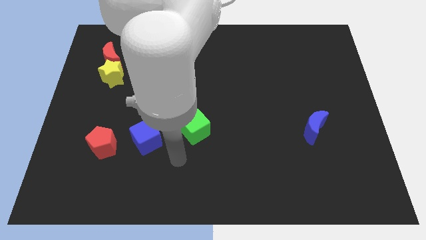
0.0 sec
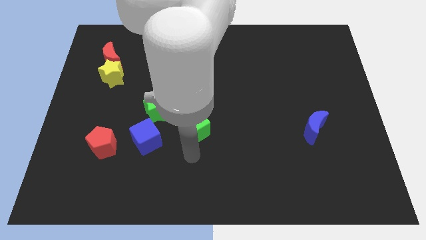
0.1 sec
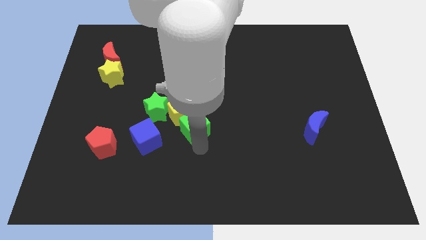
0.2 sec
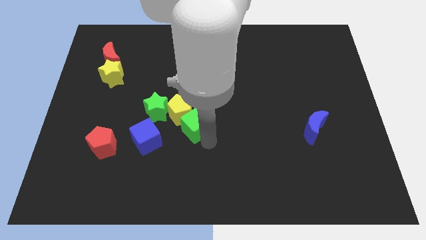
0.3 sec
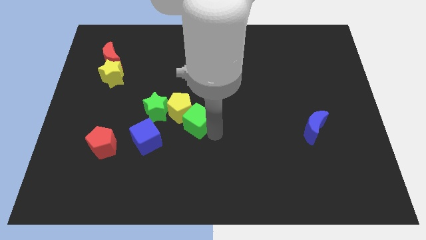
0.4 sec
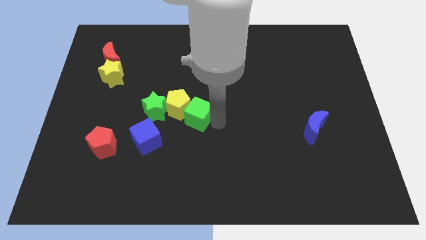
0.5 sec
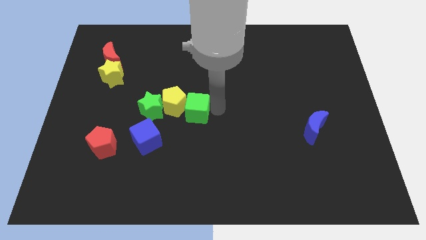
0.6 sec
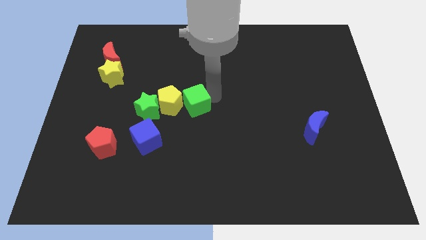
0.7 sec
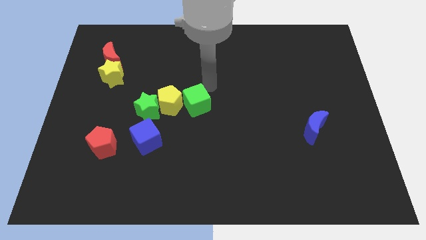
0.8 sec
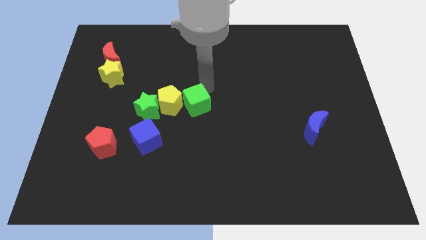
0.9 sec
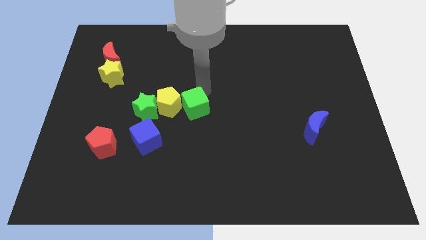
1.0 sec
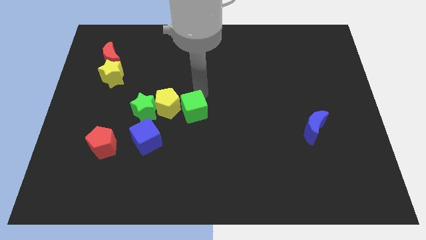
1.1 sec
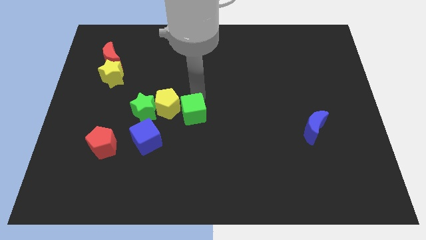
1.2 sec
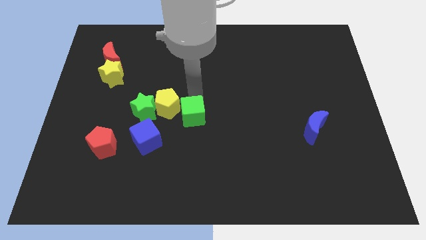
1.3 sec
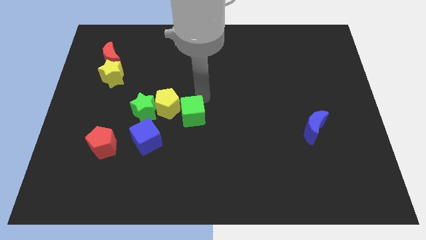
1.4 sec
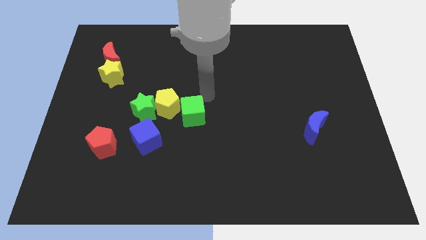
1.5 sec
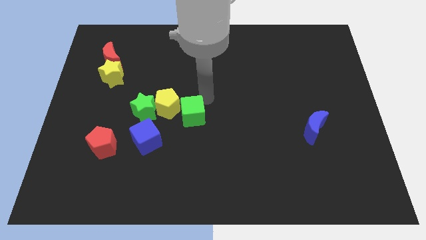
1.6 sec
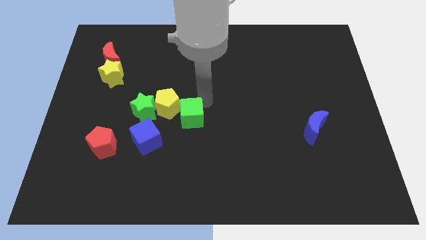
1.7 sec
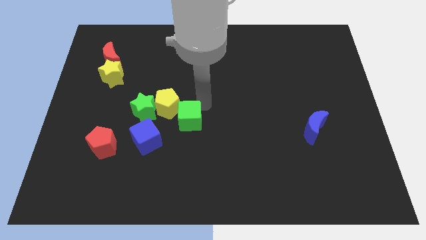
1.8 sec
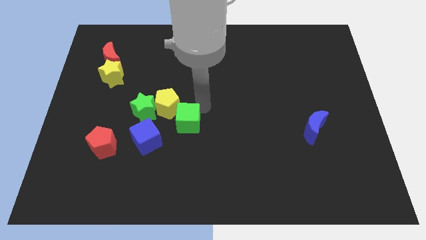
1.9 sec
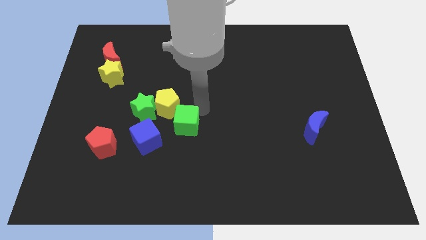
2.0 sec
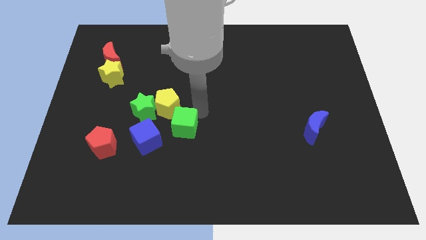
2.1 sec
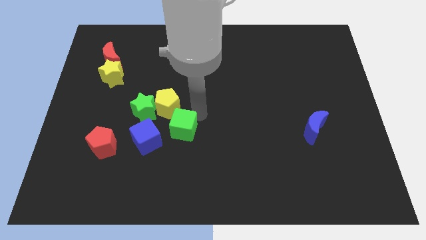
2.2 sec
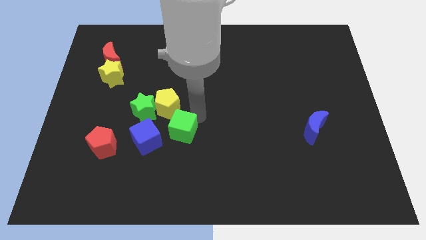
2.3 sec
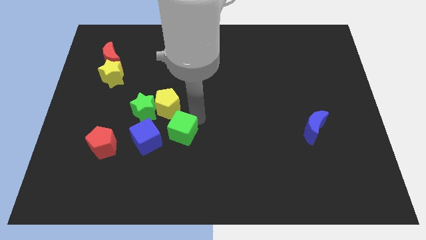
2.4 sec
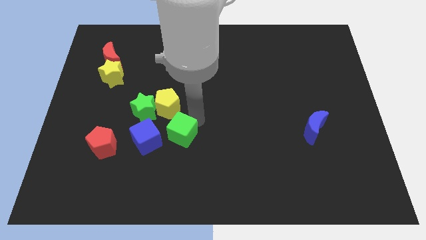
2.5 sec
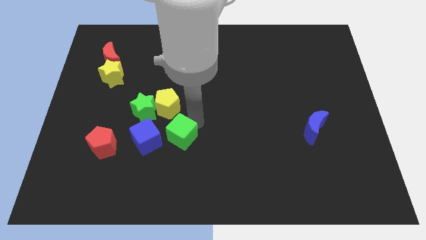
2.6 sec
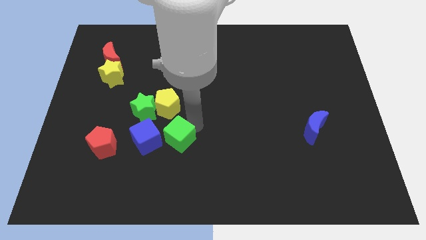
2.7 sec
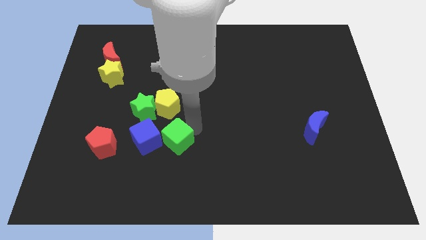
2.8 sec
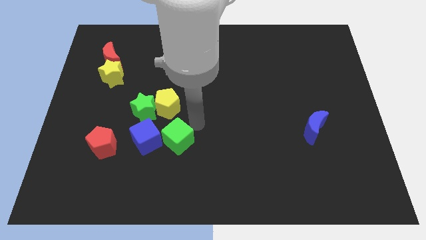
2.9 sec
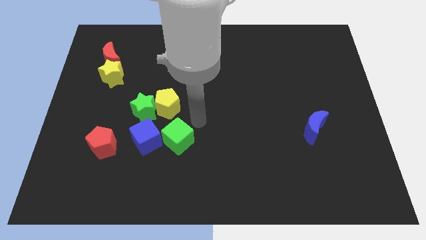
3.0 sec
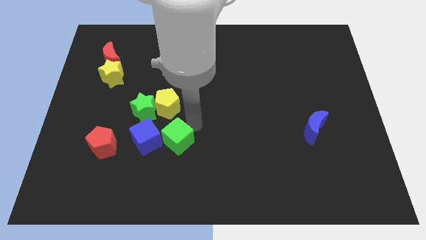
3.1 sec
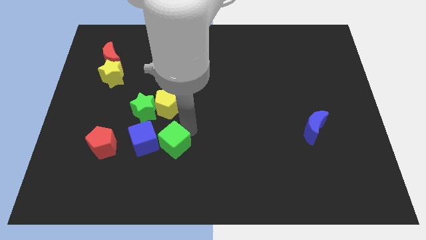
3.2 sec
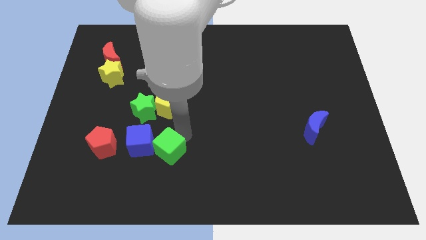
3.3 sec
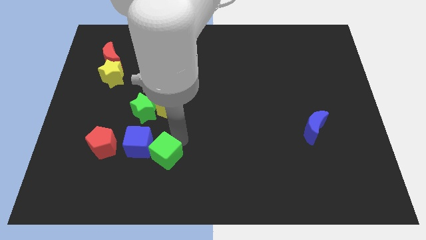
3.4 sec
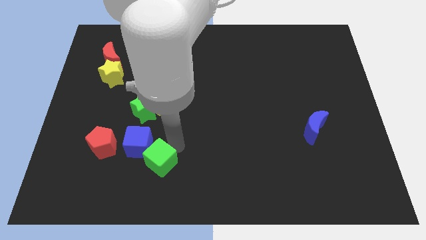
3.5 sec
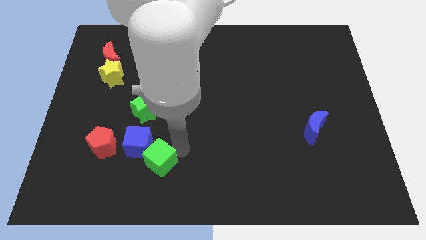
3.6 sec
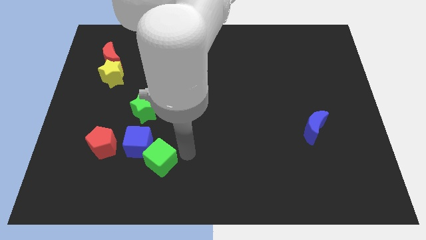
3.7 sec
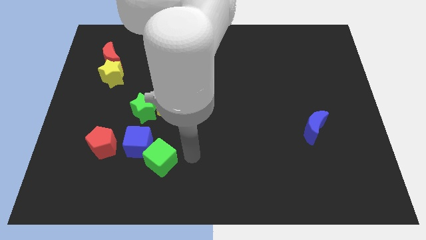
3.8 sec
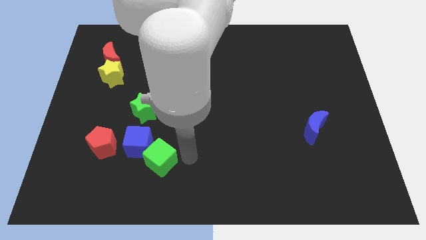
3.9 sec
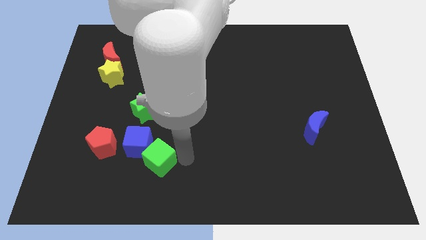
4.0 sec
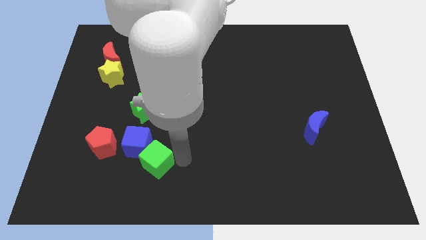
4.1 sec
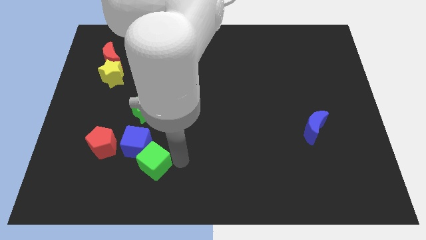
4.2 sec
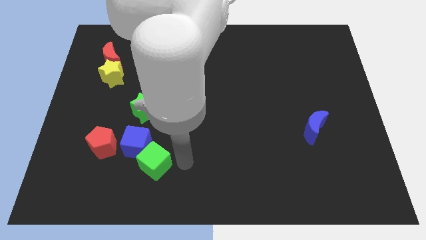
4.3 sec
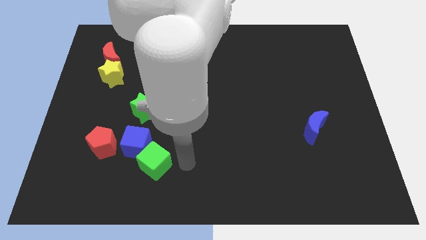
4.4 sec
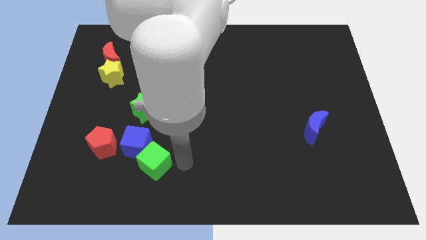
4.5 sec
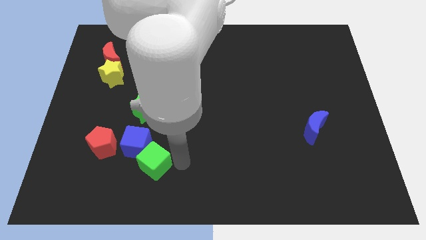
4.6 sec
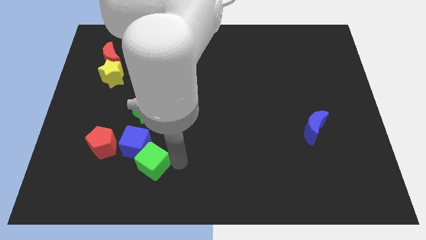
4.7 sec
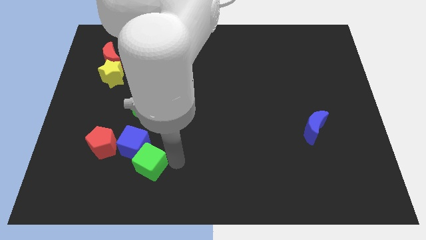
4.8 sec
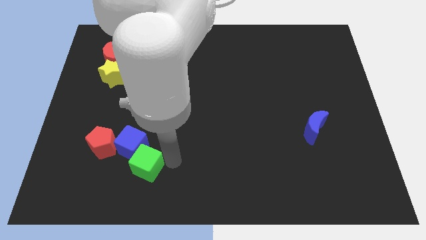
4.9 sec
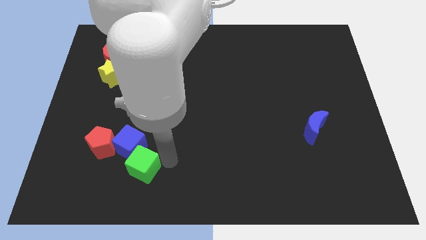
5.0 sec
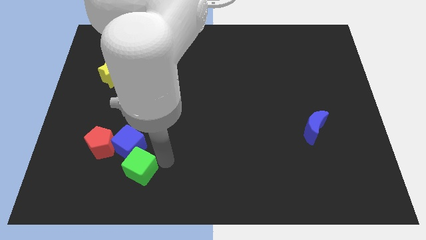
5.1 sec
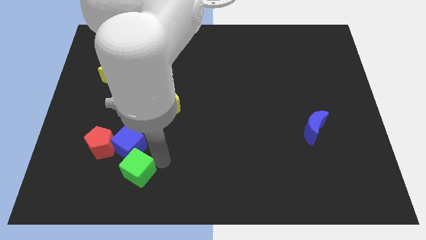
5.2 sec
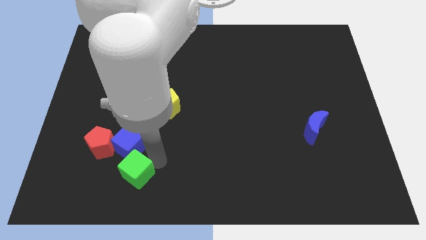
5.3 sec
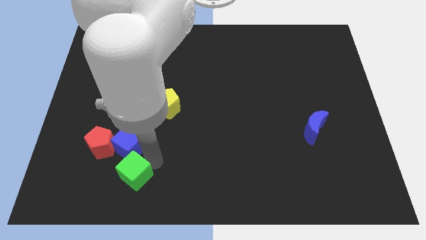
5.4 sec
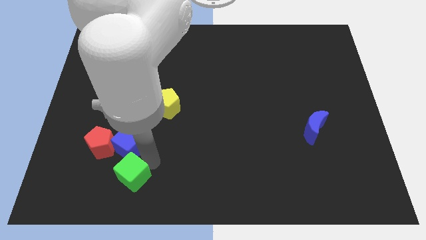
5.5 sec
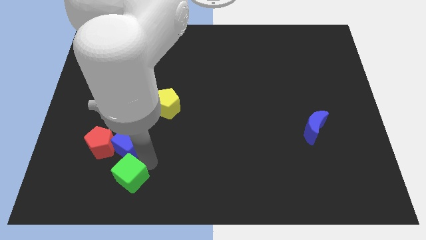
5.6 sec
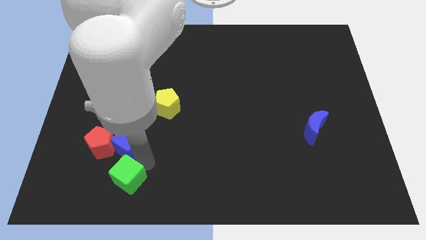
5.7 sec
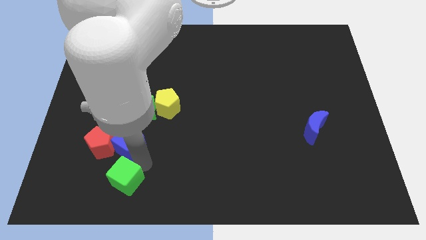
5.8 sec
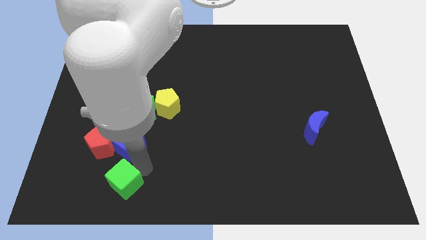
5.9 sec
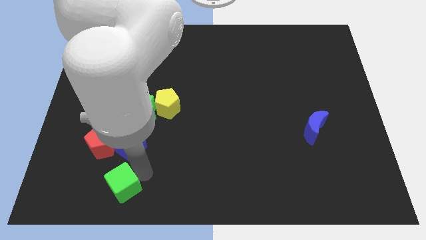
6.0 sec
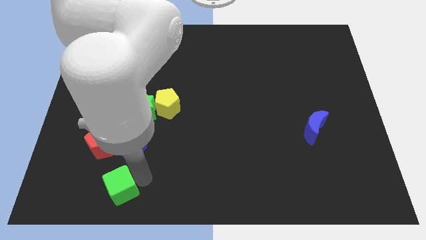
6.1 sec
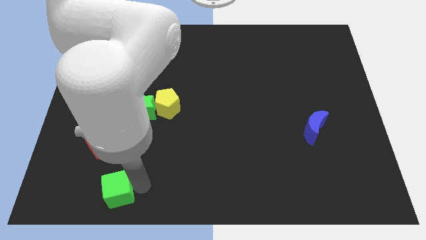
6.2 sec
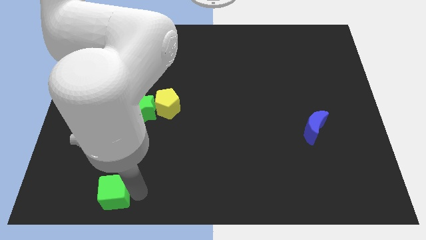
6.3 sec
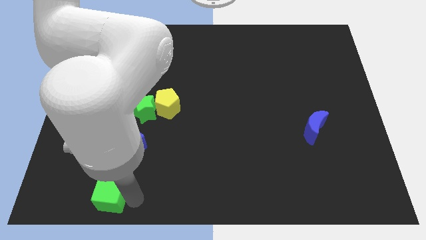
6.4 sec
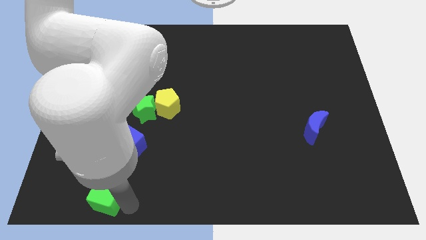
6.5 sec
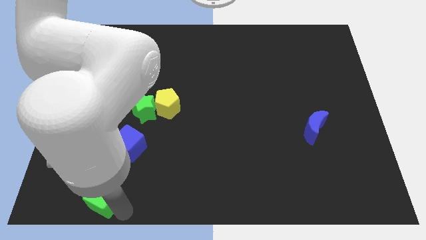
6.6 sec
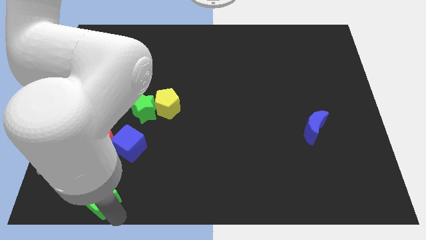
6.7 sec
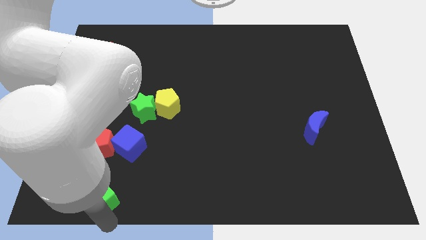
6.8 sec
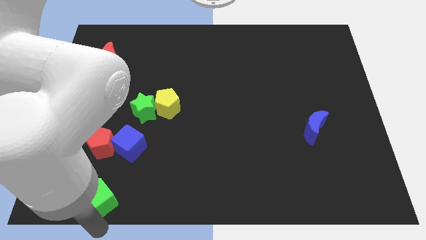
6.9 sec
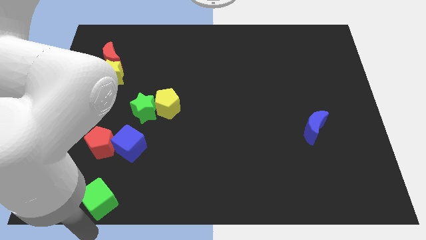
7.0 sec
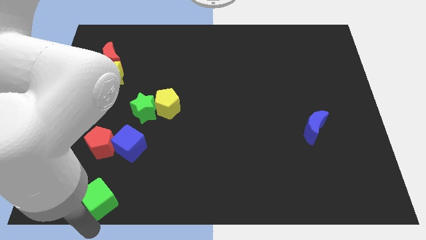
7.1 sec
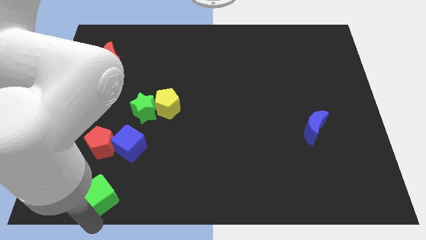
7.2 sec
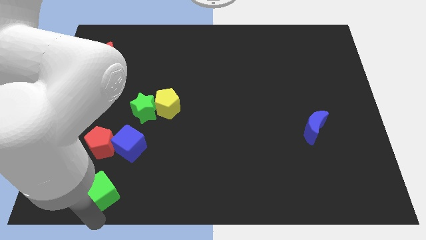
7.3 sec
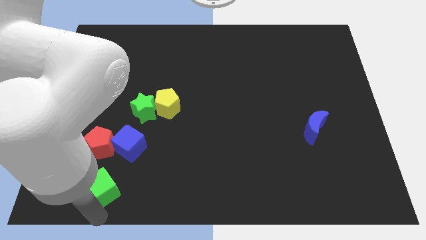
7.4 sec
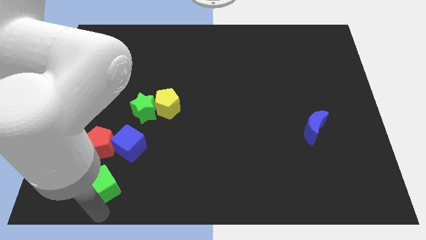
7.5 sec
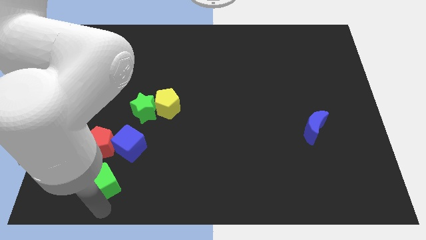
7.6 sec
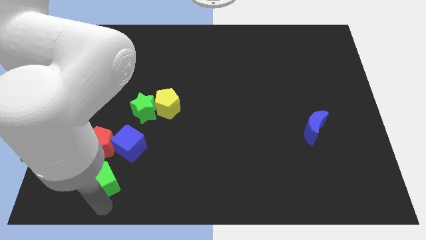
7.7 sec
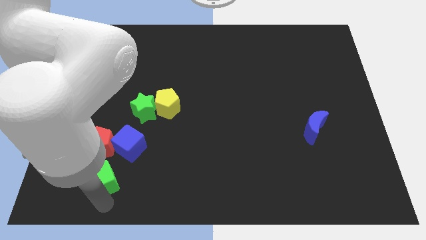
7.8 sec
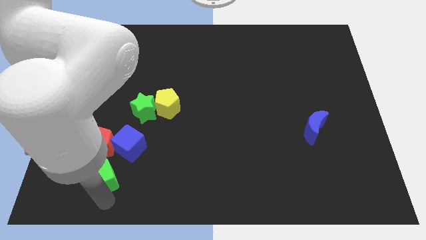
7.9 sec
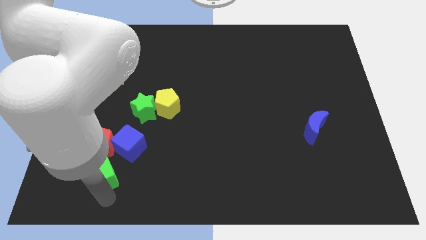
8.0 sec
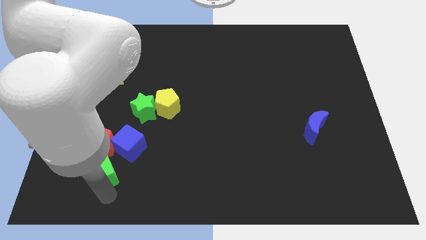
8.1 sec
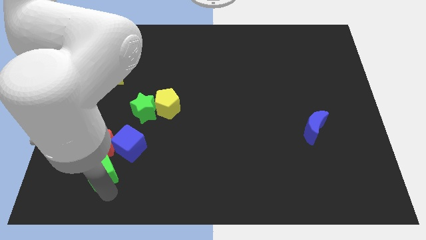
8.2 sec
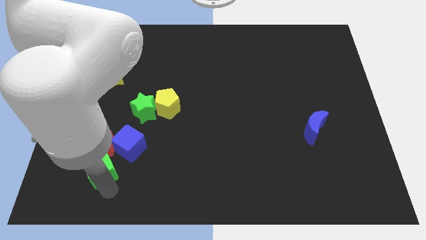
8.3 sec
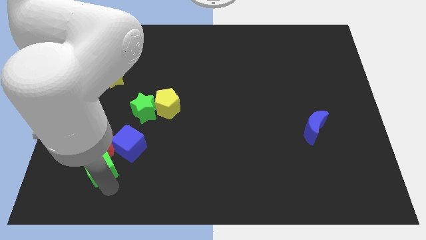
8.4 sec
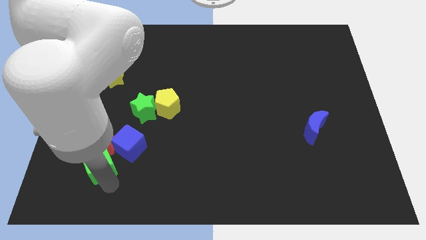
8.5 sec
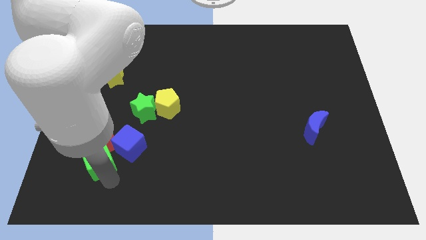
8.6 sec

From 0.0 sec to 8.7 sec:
move the green cube to the left of the blue cube
